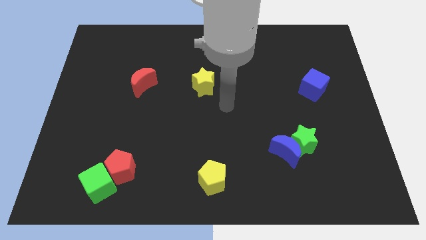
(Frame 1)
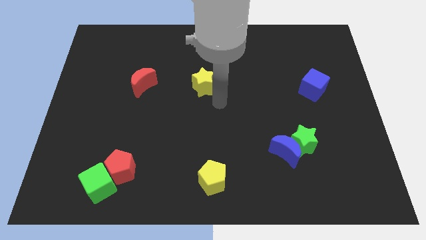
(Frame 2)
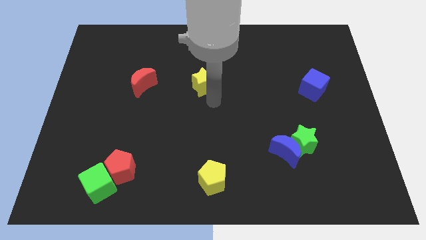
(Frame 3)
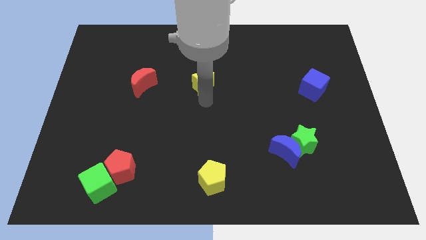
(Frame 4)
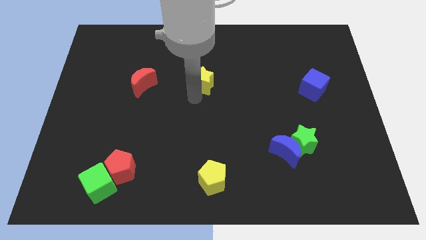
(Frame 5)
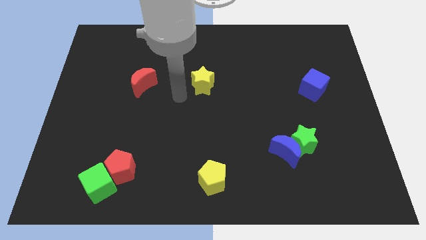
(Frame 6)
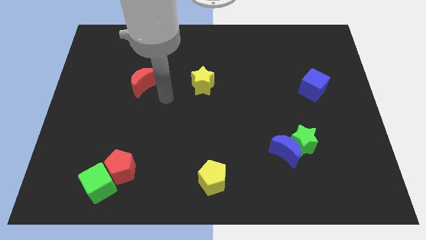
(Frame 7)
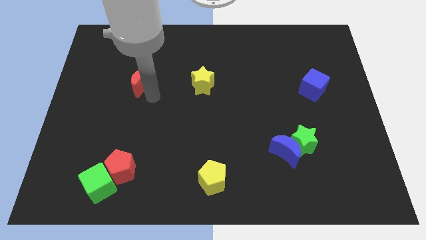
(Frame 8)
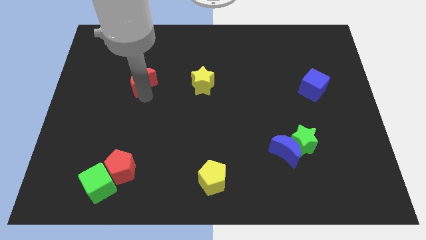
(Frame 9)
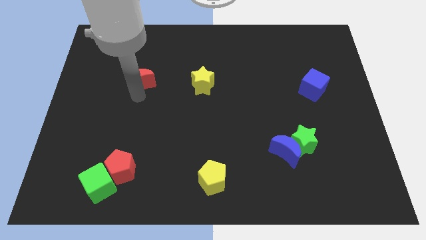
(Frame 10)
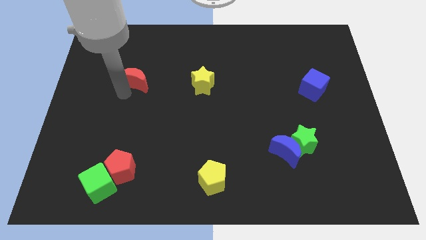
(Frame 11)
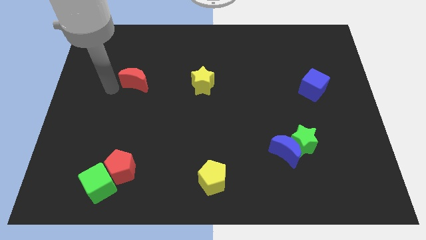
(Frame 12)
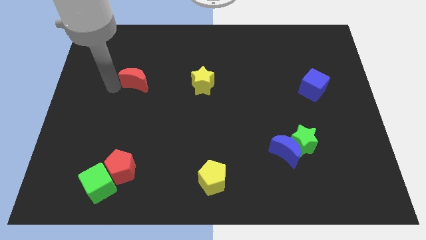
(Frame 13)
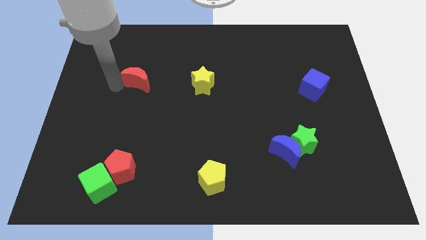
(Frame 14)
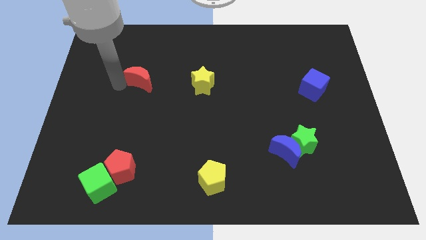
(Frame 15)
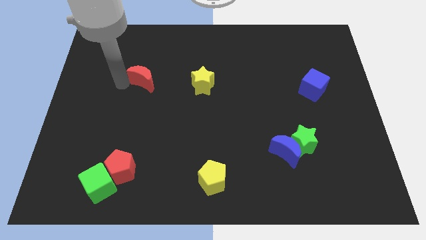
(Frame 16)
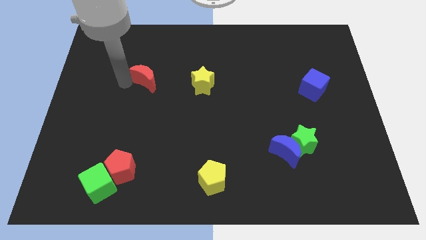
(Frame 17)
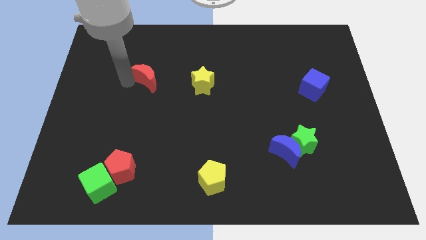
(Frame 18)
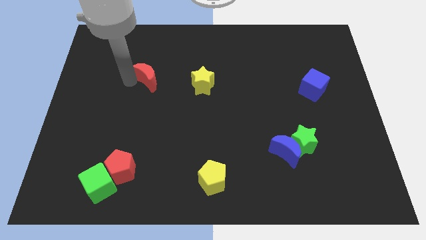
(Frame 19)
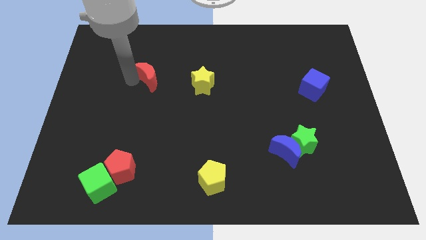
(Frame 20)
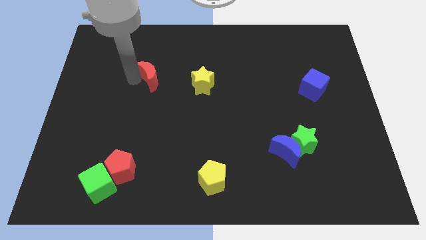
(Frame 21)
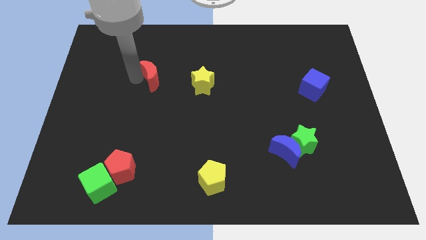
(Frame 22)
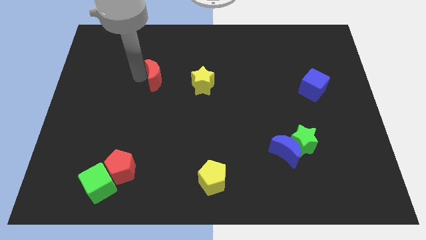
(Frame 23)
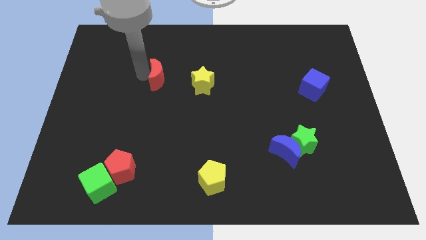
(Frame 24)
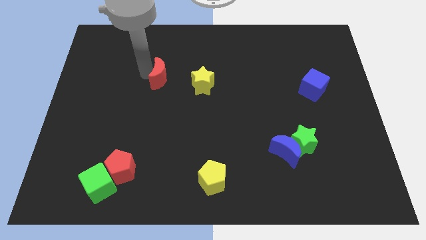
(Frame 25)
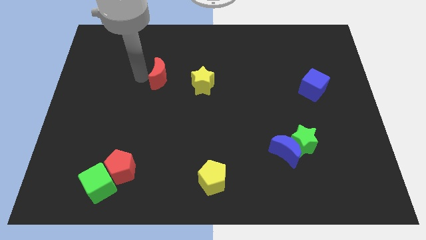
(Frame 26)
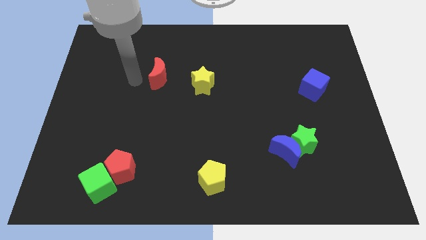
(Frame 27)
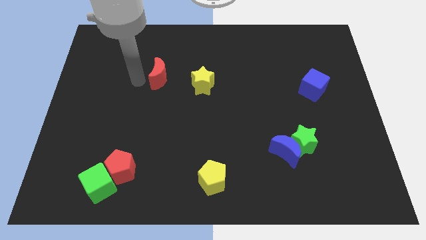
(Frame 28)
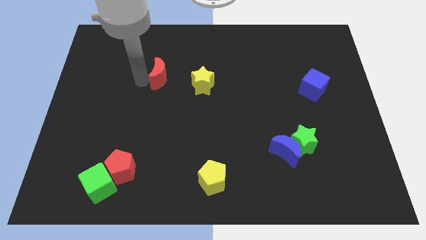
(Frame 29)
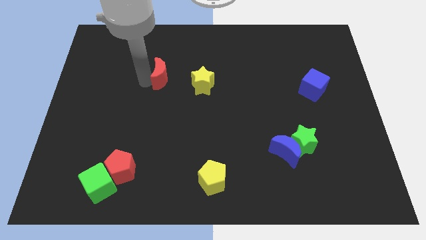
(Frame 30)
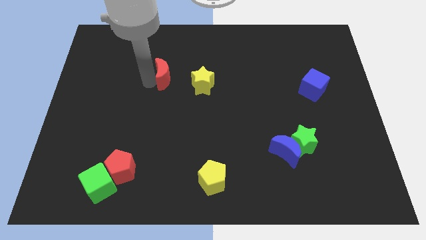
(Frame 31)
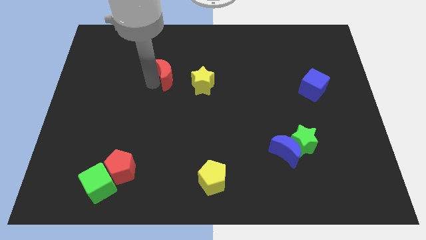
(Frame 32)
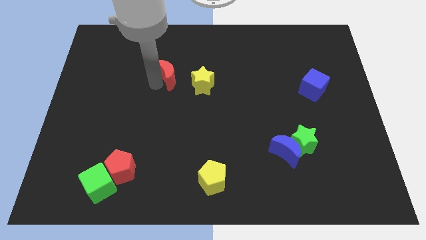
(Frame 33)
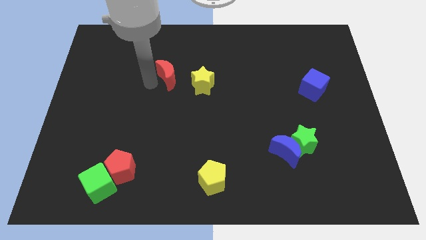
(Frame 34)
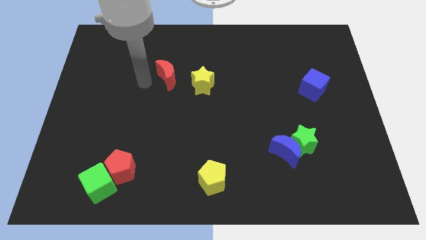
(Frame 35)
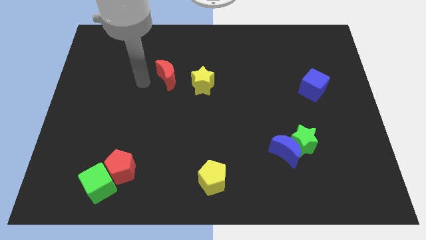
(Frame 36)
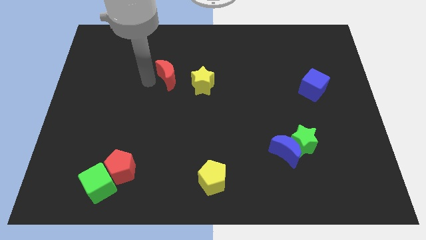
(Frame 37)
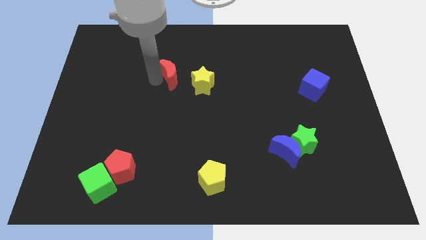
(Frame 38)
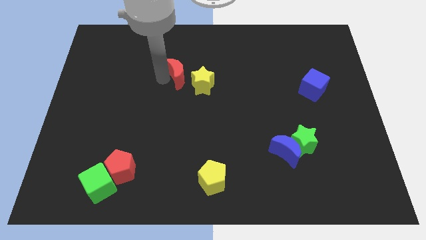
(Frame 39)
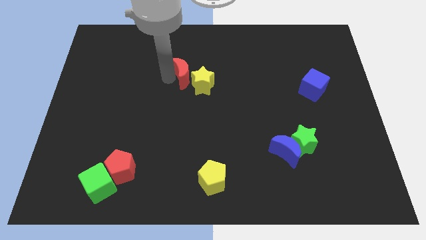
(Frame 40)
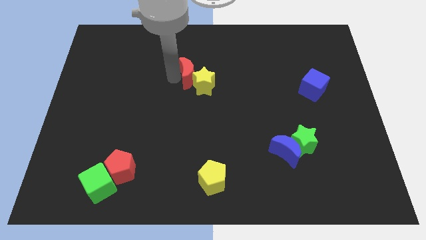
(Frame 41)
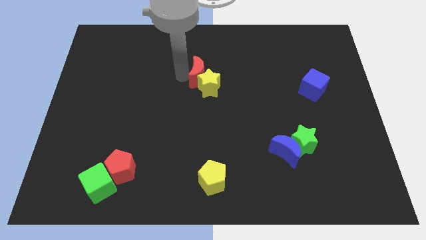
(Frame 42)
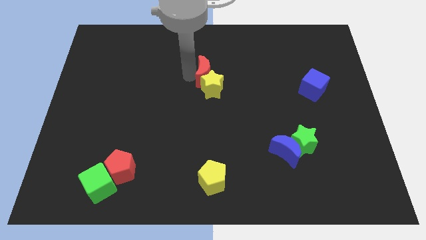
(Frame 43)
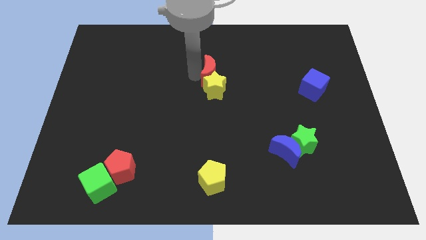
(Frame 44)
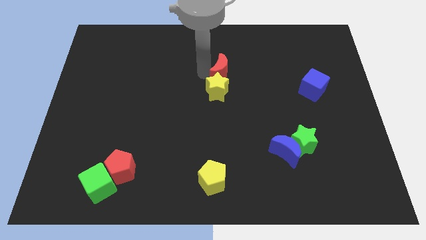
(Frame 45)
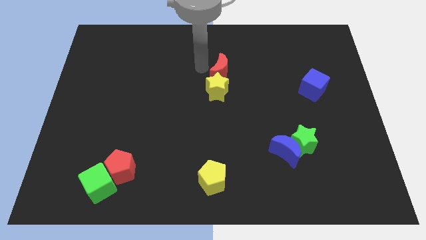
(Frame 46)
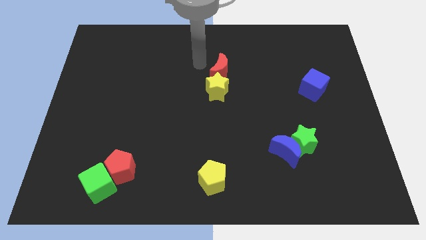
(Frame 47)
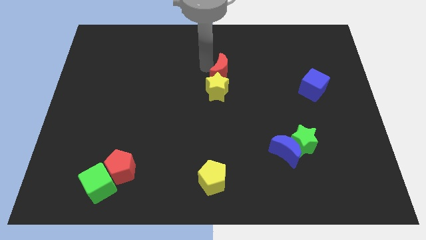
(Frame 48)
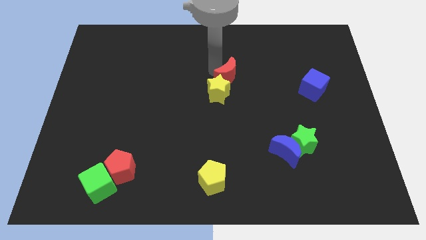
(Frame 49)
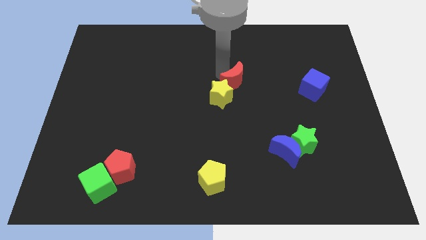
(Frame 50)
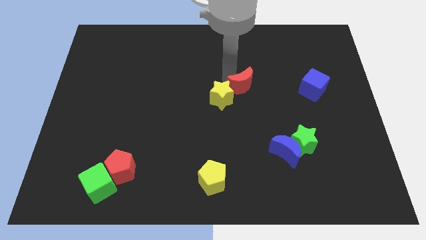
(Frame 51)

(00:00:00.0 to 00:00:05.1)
push the red moon to the right side of the yellow star

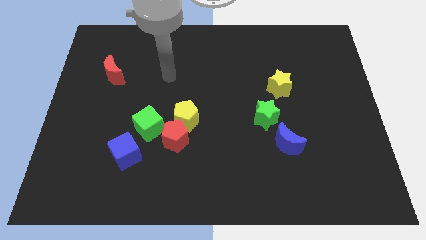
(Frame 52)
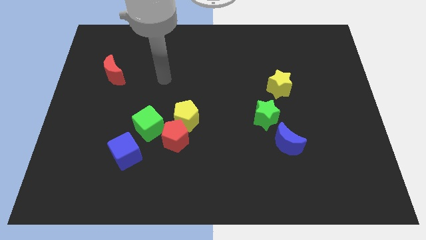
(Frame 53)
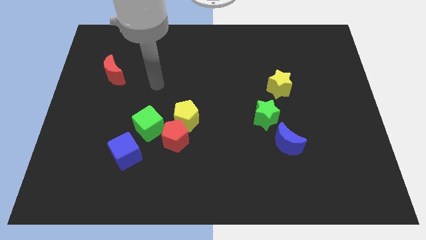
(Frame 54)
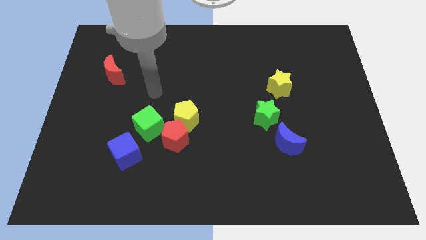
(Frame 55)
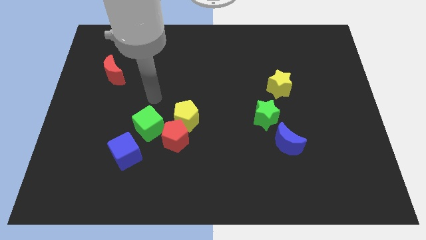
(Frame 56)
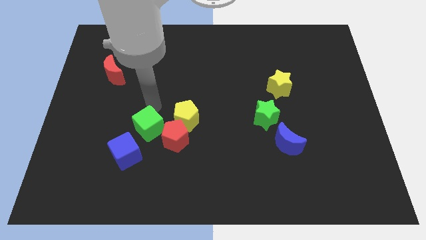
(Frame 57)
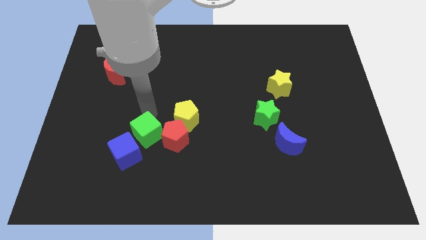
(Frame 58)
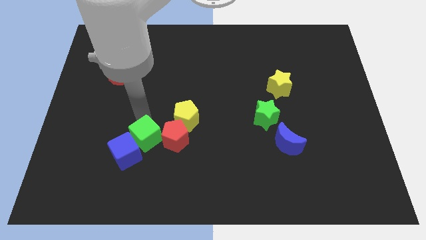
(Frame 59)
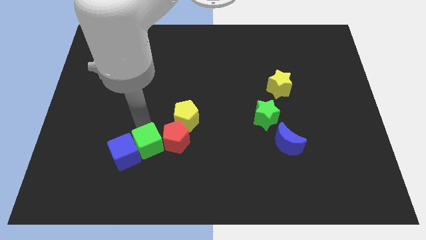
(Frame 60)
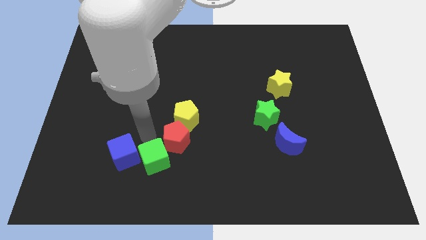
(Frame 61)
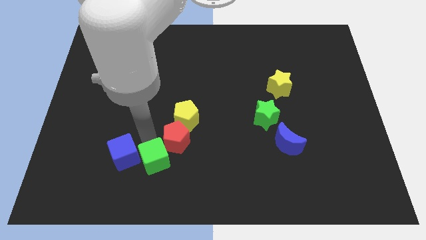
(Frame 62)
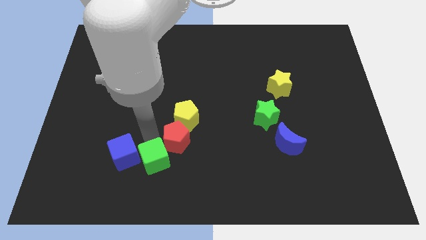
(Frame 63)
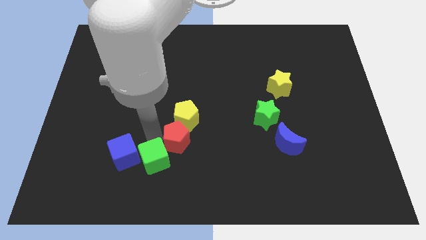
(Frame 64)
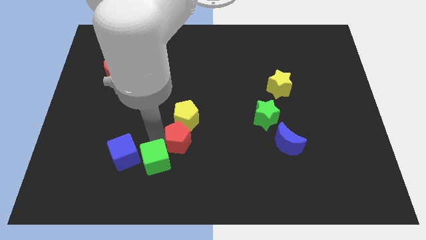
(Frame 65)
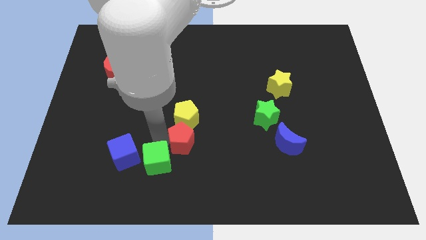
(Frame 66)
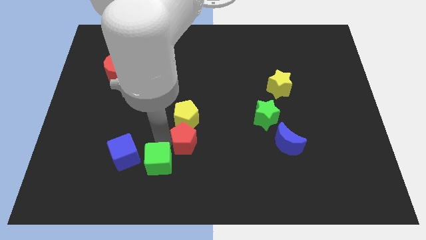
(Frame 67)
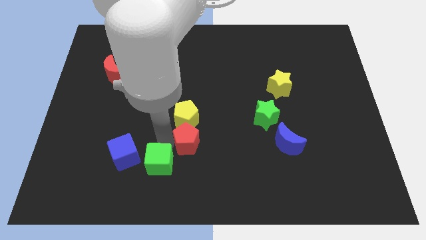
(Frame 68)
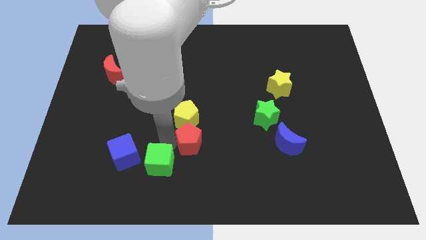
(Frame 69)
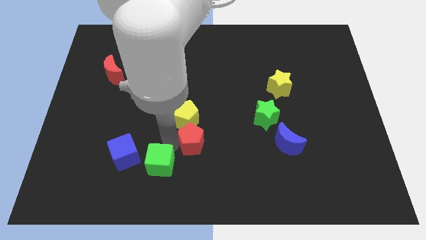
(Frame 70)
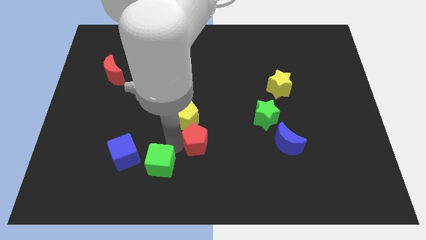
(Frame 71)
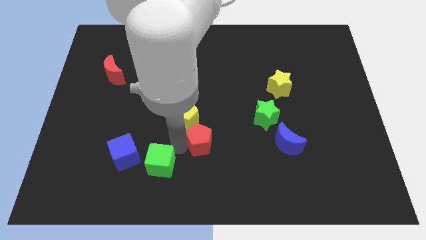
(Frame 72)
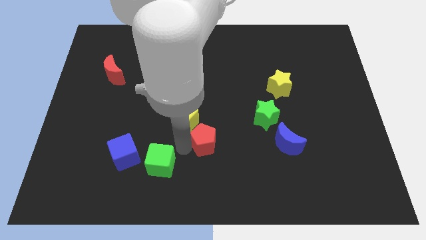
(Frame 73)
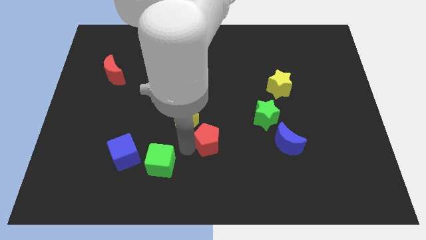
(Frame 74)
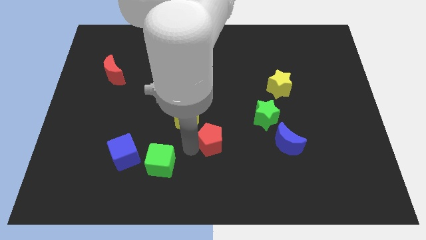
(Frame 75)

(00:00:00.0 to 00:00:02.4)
put the red pentagon just left of the blue moon

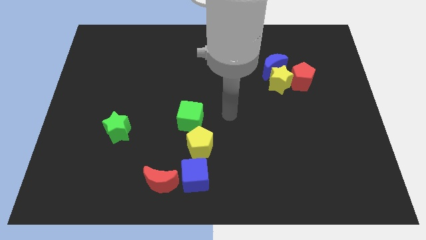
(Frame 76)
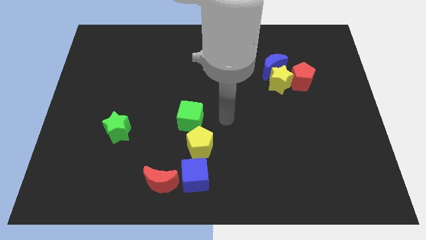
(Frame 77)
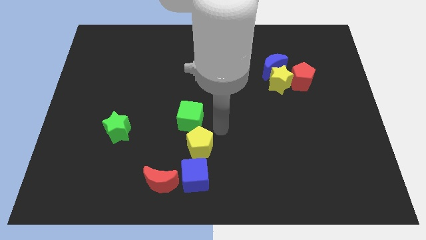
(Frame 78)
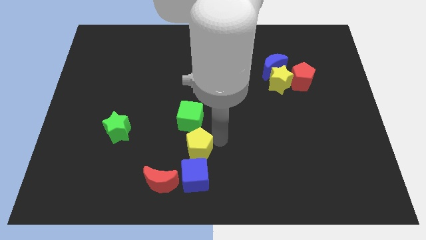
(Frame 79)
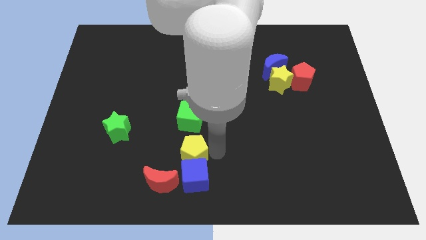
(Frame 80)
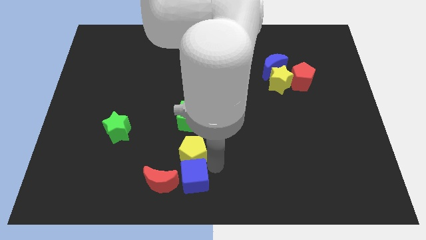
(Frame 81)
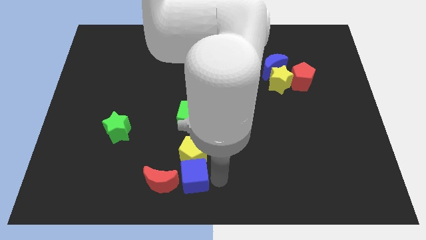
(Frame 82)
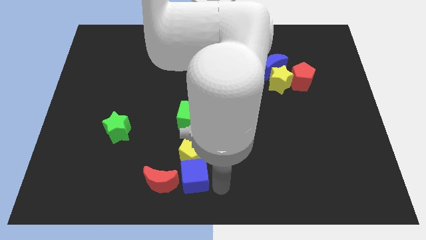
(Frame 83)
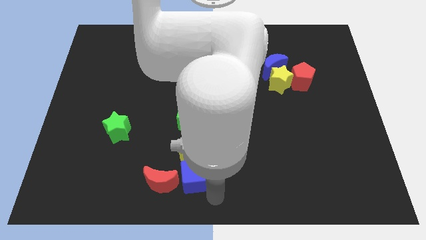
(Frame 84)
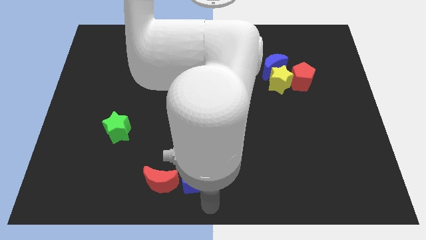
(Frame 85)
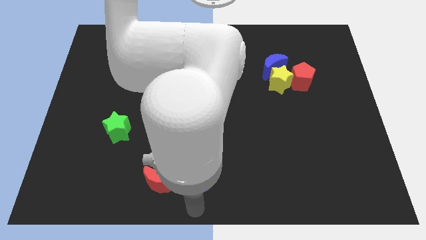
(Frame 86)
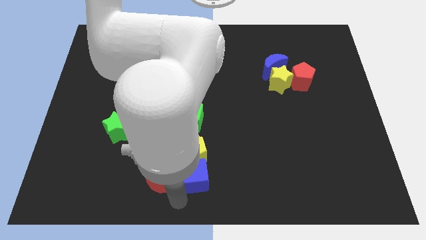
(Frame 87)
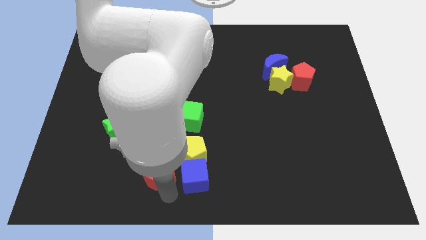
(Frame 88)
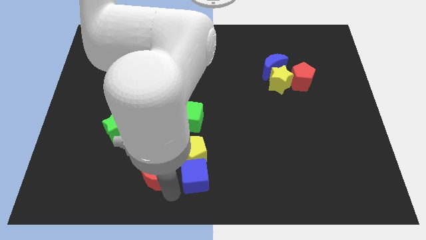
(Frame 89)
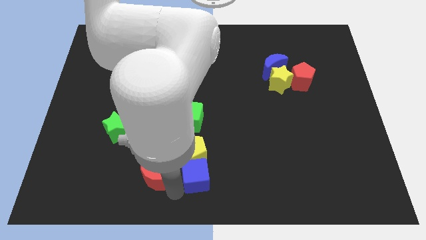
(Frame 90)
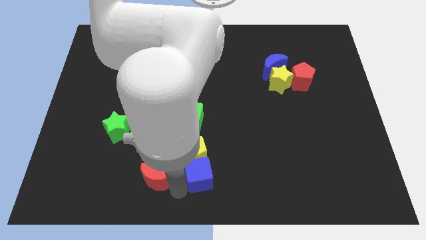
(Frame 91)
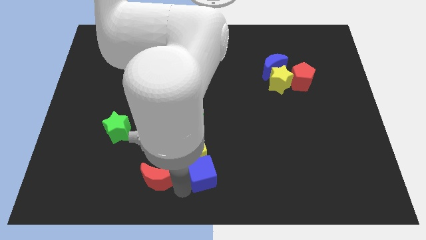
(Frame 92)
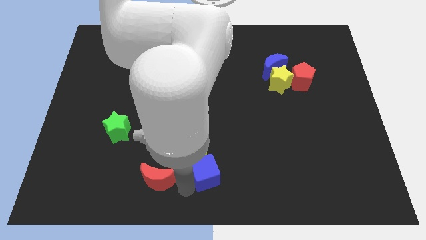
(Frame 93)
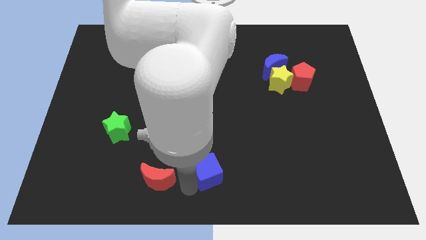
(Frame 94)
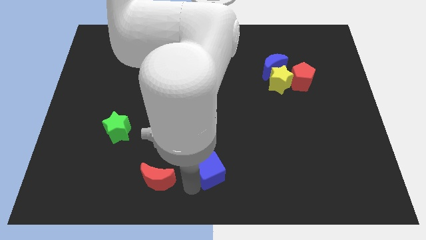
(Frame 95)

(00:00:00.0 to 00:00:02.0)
move the blue cube to the right side of the yellow pentagon
